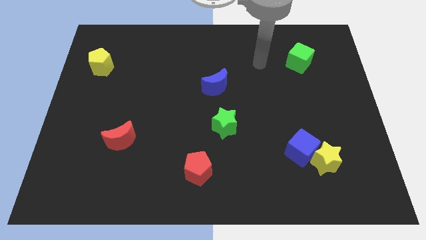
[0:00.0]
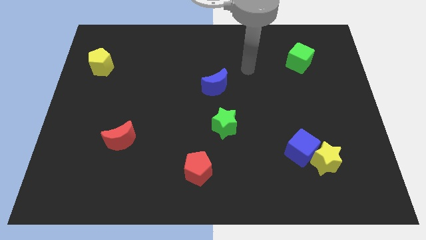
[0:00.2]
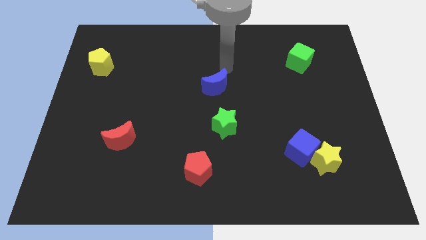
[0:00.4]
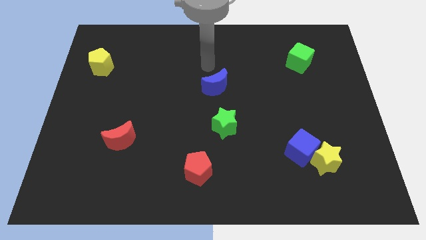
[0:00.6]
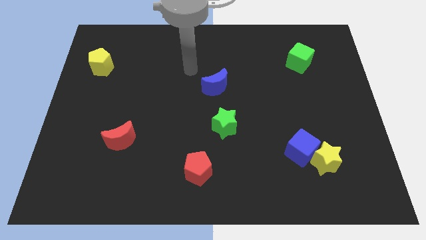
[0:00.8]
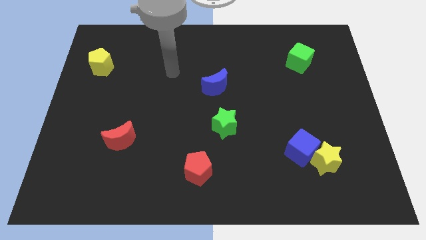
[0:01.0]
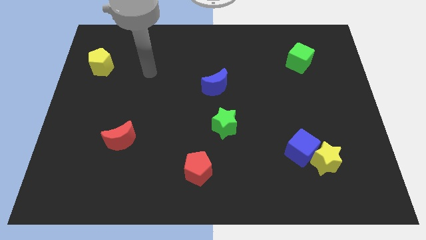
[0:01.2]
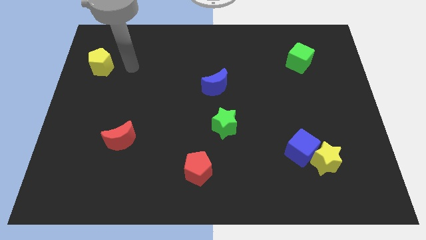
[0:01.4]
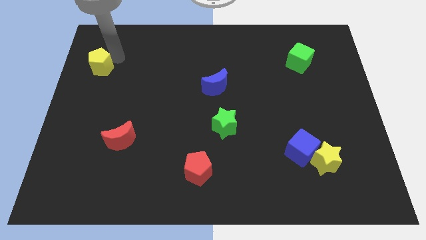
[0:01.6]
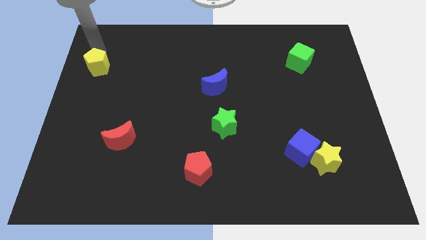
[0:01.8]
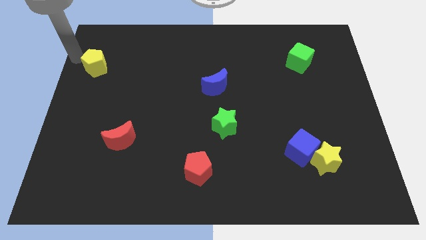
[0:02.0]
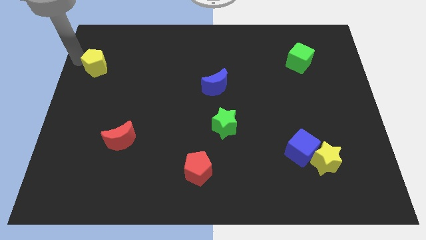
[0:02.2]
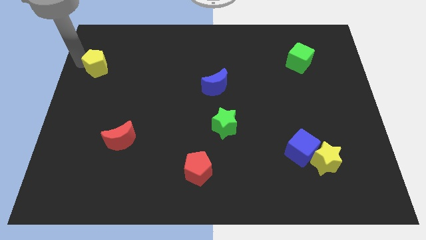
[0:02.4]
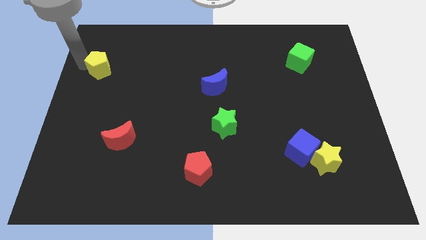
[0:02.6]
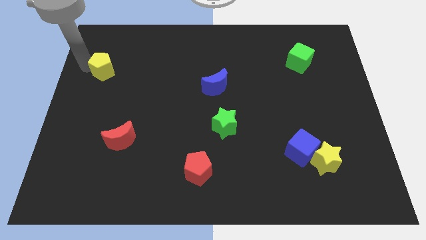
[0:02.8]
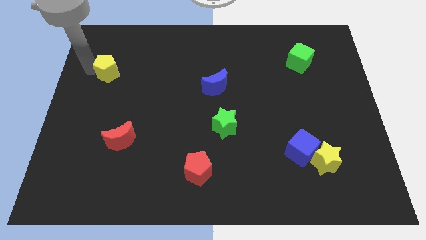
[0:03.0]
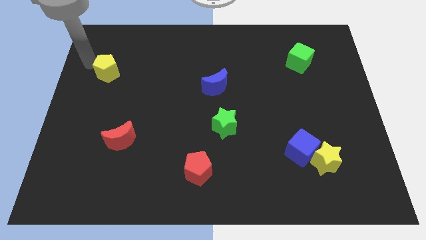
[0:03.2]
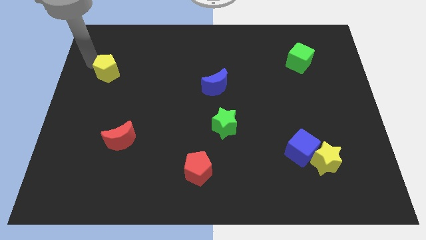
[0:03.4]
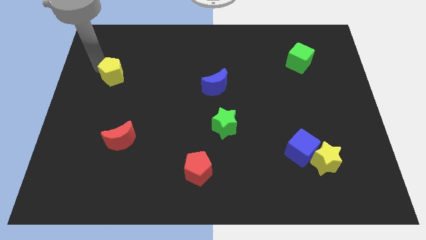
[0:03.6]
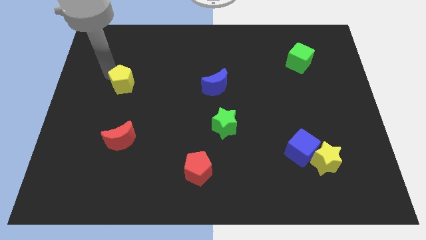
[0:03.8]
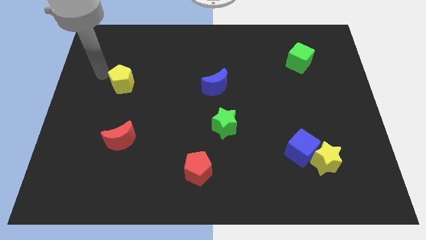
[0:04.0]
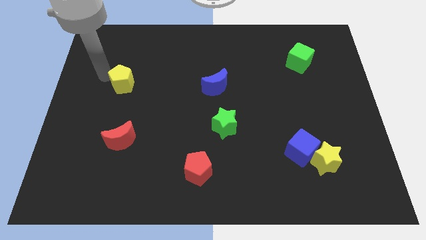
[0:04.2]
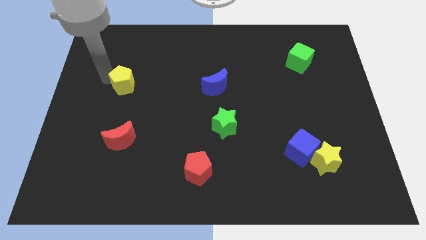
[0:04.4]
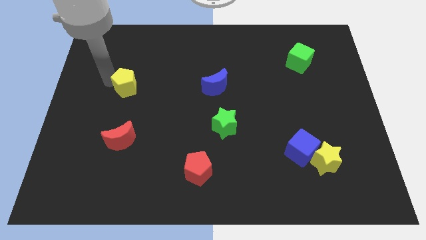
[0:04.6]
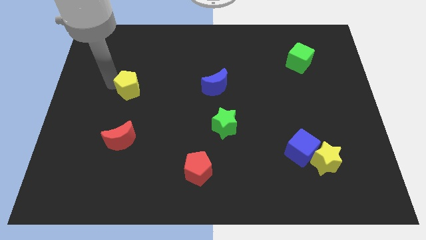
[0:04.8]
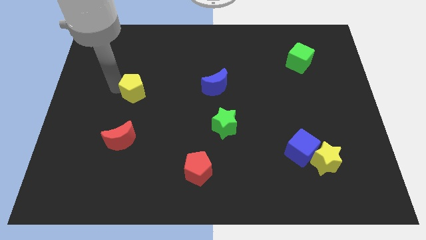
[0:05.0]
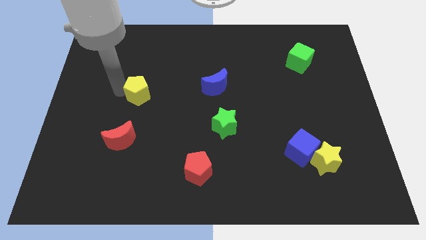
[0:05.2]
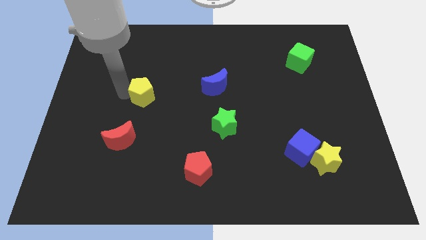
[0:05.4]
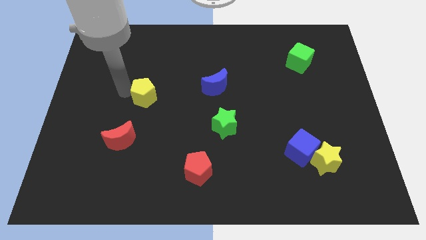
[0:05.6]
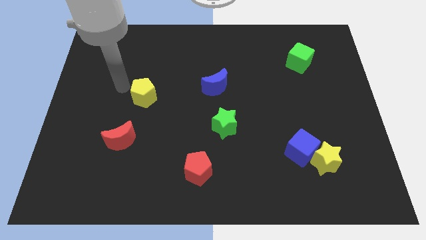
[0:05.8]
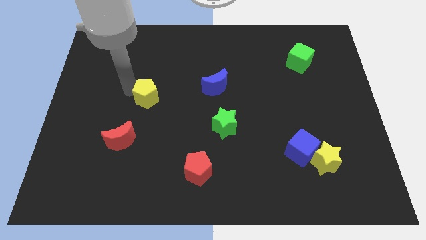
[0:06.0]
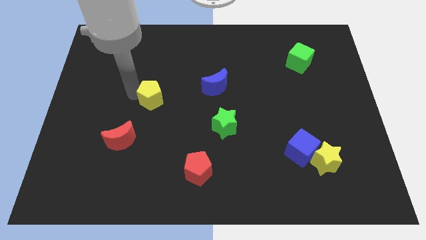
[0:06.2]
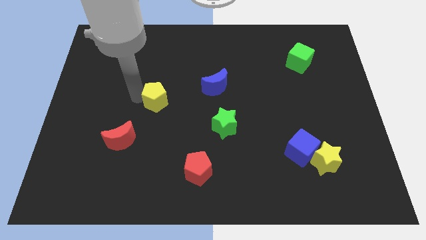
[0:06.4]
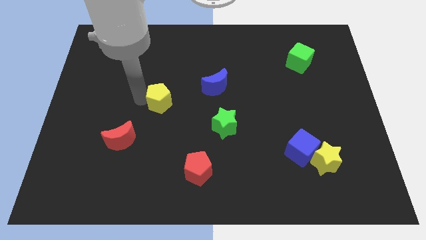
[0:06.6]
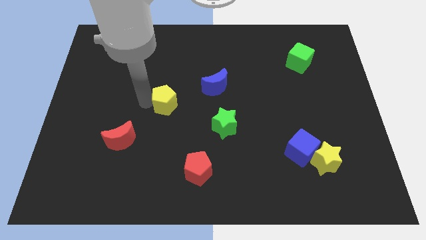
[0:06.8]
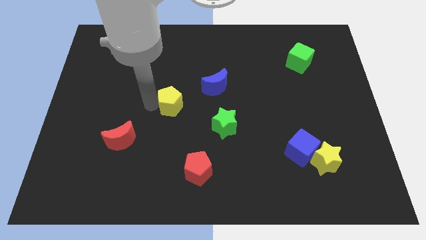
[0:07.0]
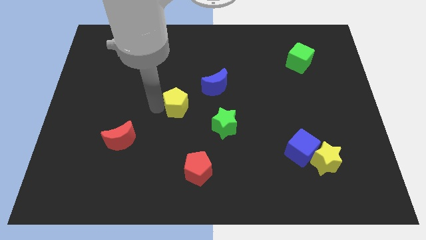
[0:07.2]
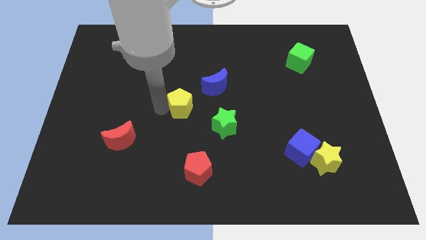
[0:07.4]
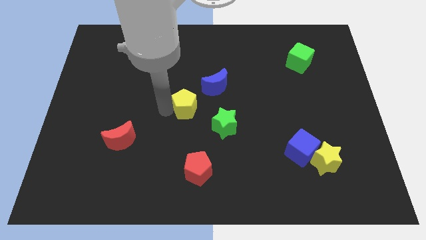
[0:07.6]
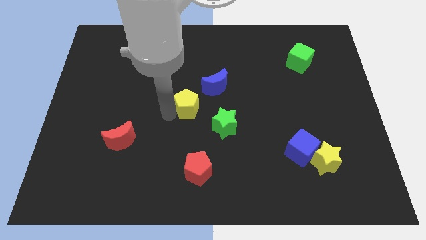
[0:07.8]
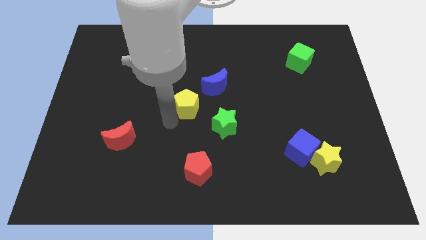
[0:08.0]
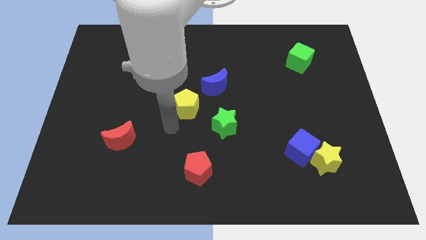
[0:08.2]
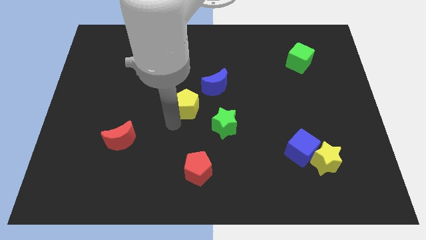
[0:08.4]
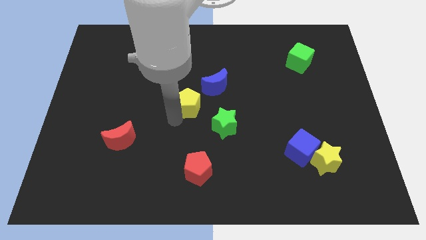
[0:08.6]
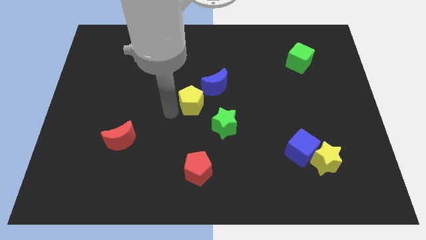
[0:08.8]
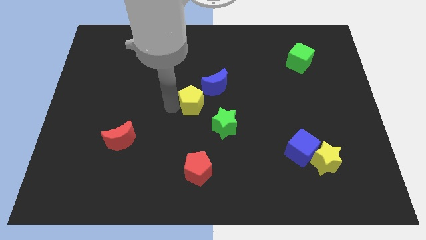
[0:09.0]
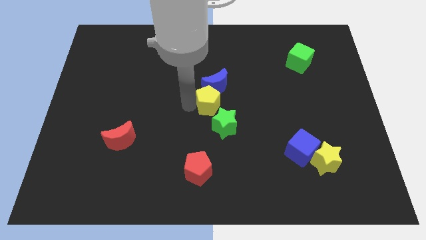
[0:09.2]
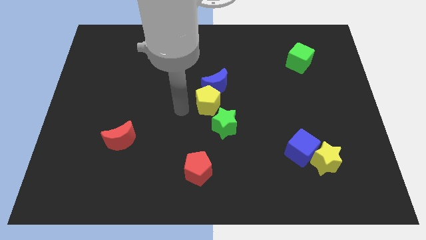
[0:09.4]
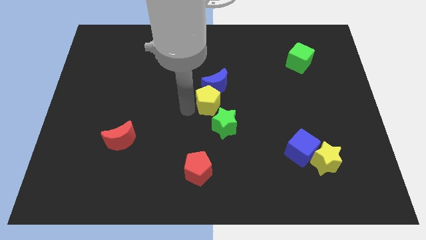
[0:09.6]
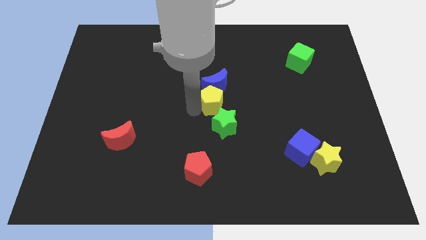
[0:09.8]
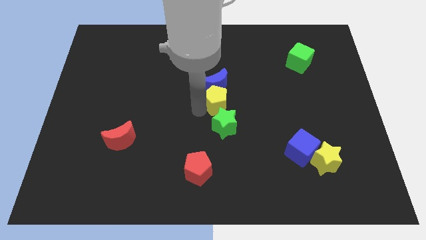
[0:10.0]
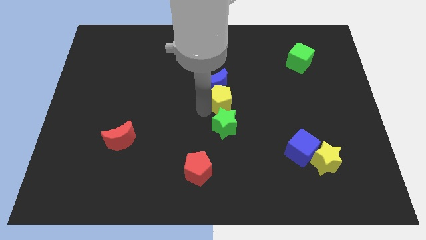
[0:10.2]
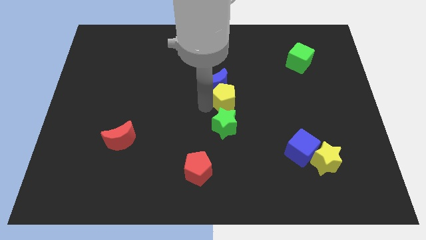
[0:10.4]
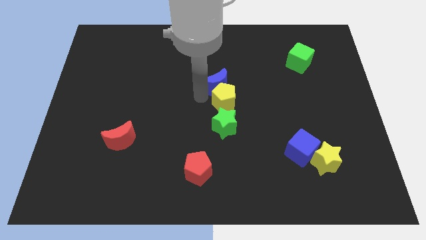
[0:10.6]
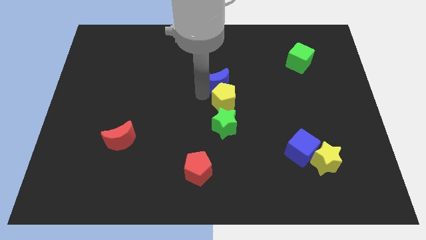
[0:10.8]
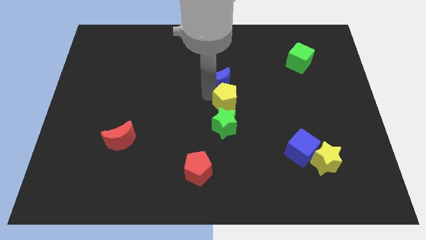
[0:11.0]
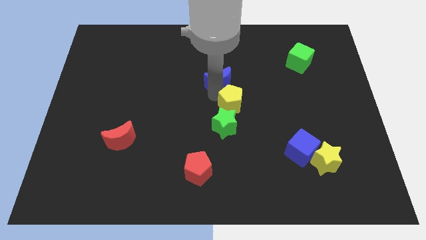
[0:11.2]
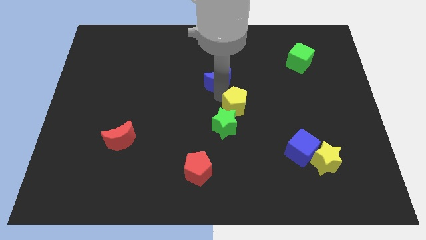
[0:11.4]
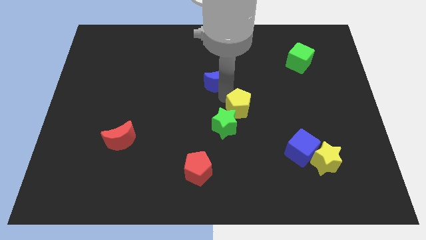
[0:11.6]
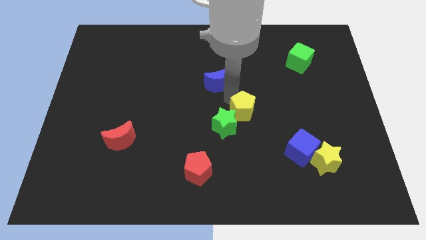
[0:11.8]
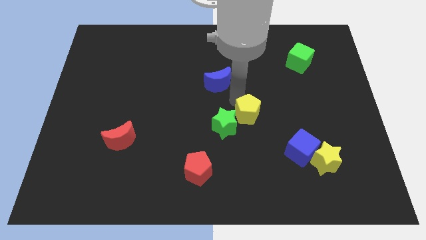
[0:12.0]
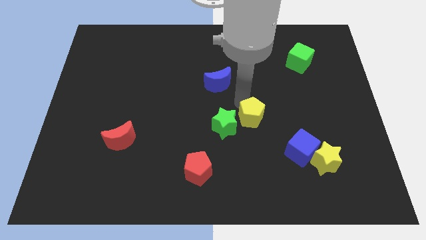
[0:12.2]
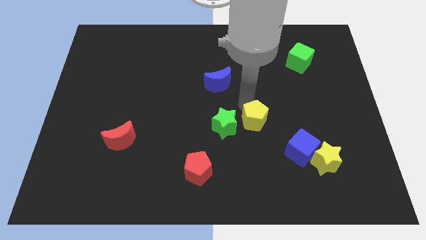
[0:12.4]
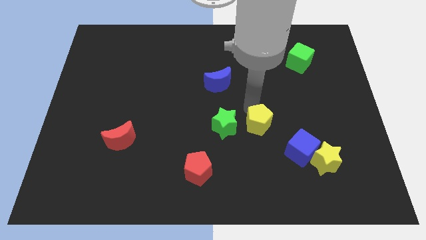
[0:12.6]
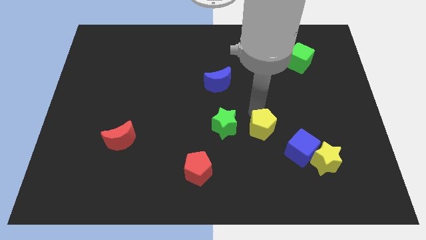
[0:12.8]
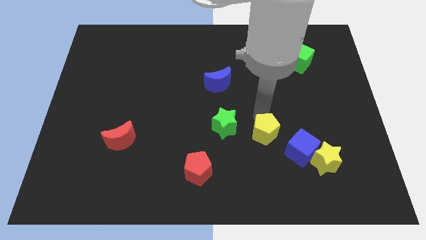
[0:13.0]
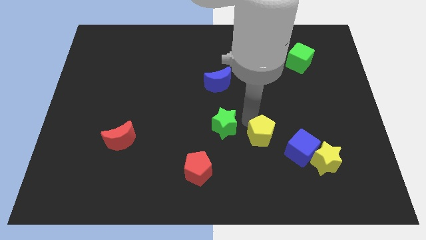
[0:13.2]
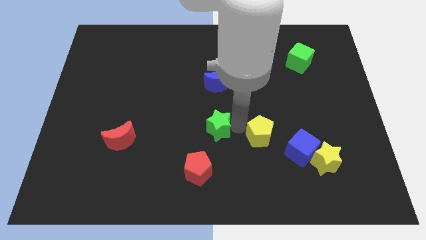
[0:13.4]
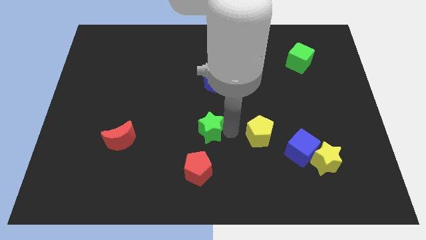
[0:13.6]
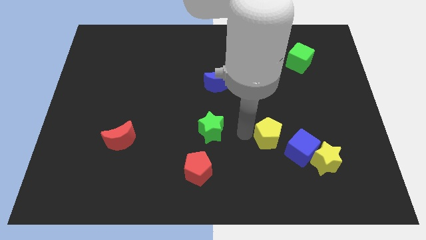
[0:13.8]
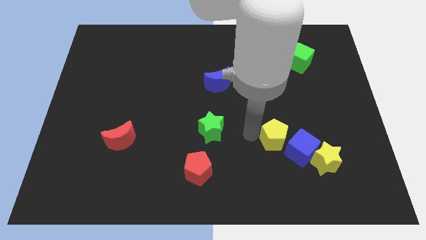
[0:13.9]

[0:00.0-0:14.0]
push the yellow pentagon close to the blue cube

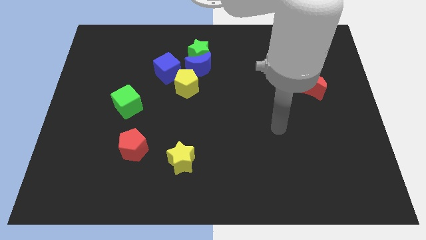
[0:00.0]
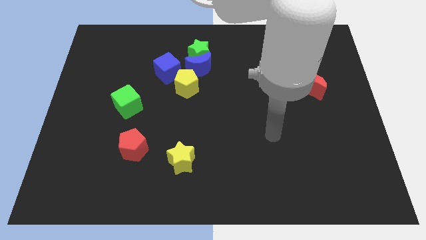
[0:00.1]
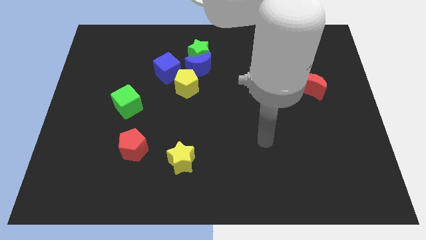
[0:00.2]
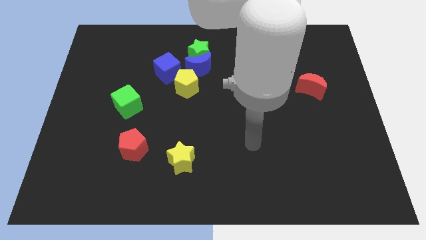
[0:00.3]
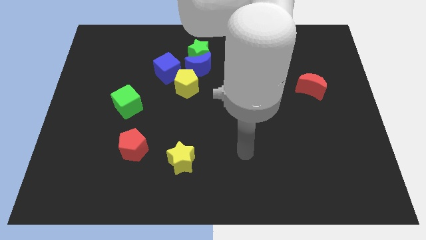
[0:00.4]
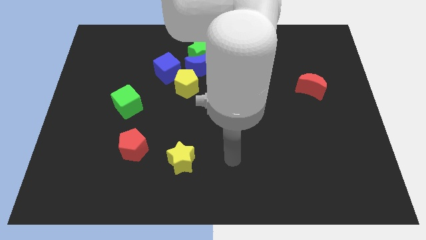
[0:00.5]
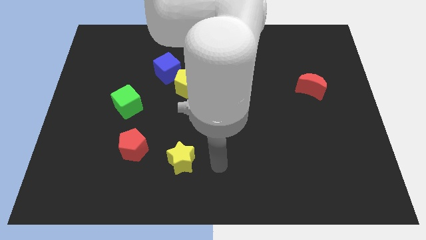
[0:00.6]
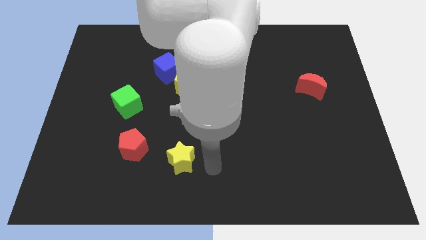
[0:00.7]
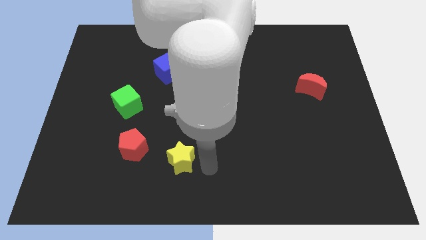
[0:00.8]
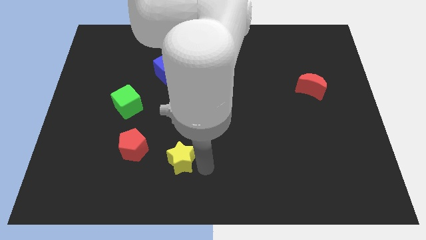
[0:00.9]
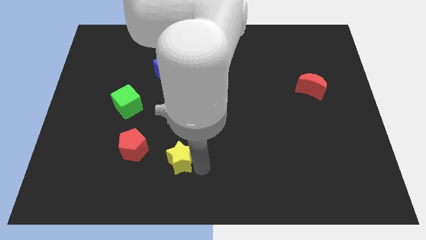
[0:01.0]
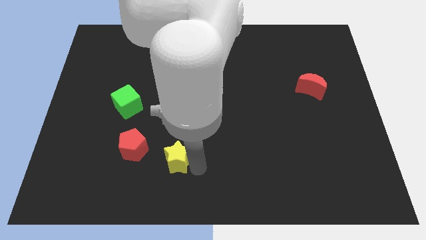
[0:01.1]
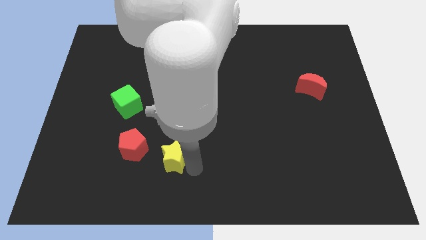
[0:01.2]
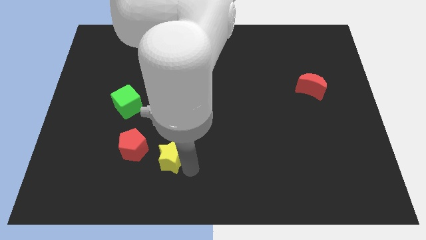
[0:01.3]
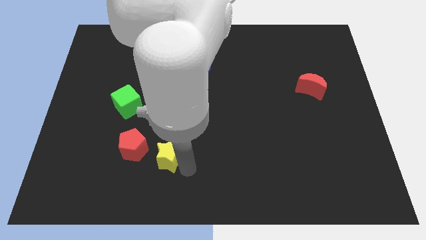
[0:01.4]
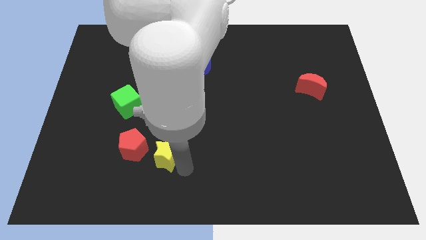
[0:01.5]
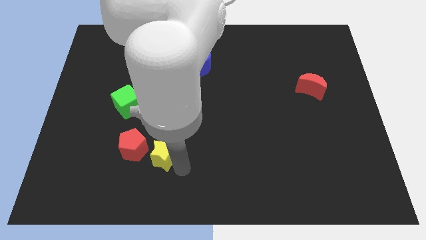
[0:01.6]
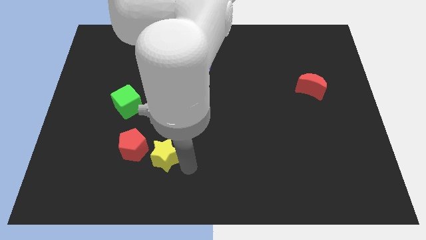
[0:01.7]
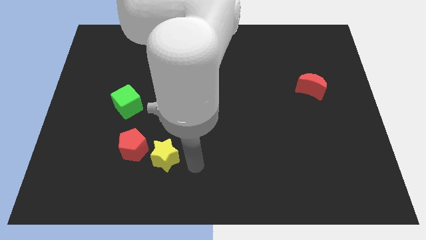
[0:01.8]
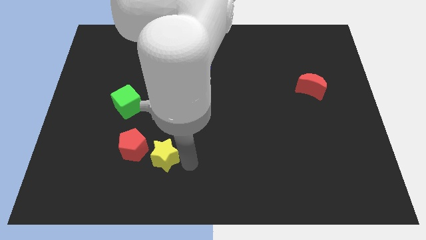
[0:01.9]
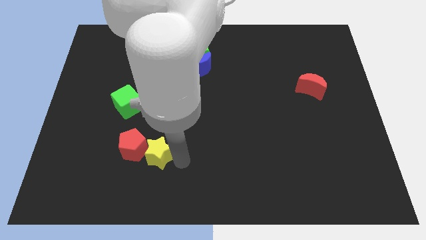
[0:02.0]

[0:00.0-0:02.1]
move the yellow star close to the red pentagon
